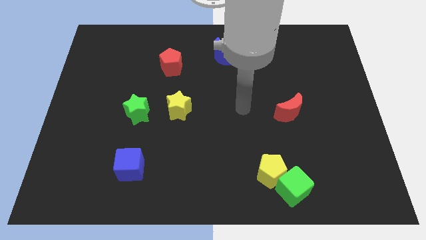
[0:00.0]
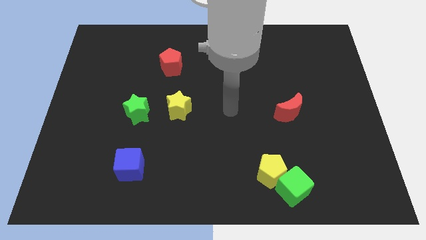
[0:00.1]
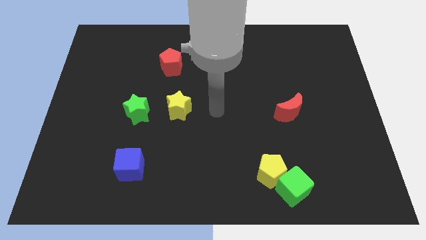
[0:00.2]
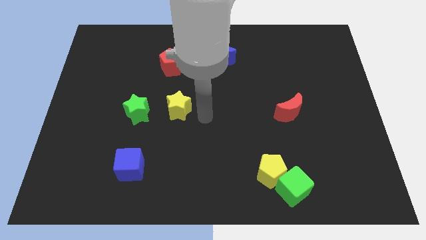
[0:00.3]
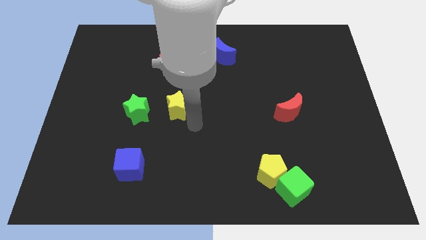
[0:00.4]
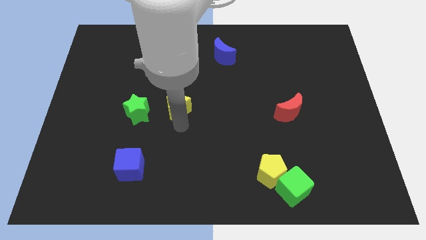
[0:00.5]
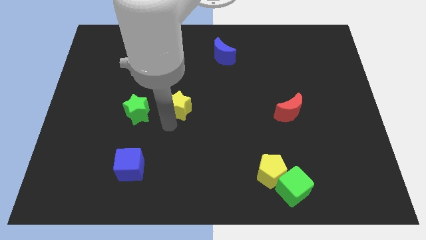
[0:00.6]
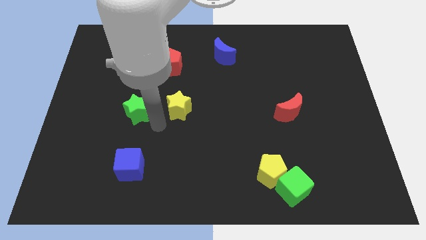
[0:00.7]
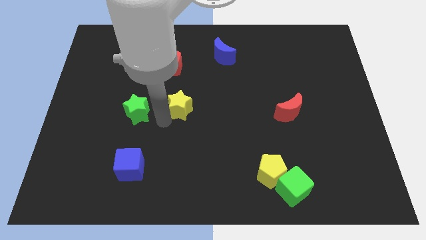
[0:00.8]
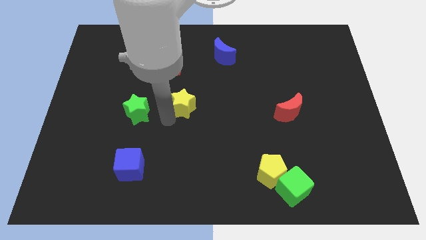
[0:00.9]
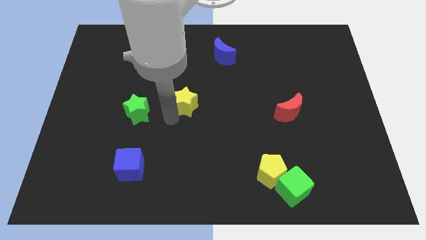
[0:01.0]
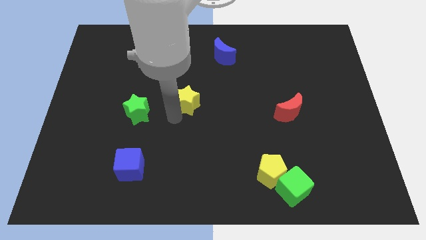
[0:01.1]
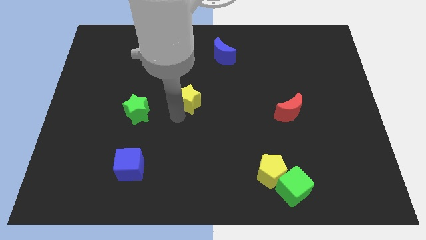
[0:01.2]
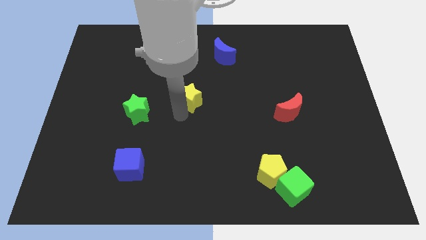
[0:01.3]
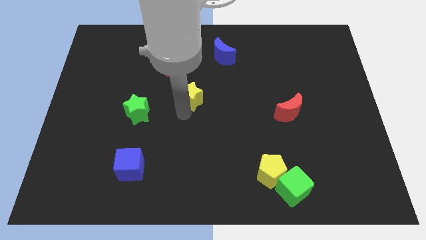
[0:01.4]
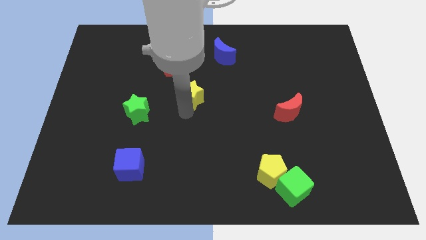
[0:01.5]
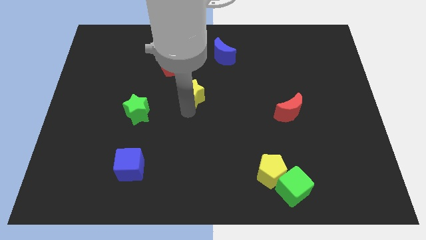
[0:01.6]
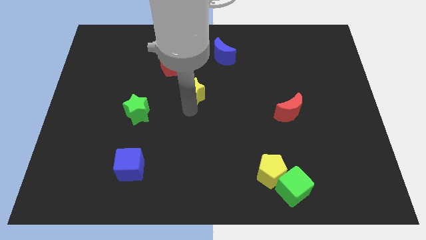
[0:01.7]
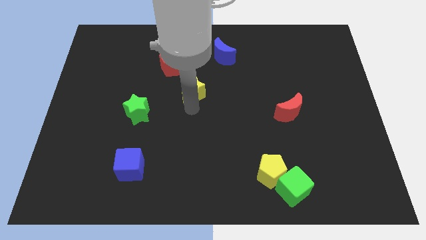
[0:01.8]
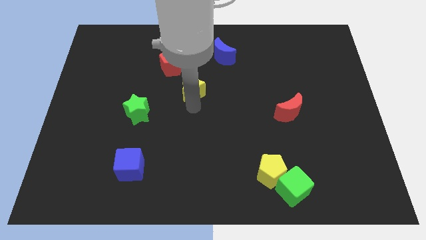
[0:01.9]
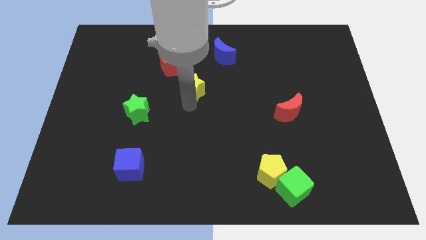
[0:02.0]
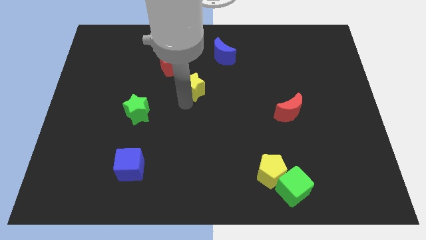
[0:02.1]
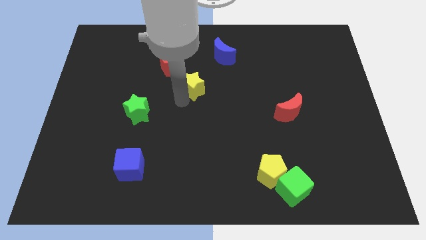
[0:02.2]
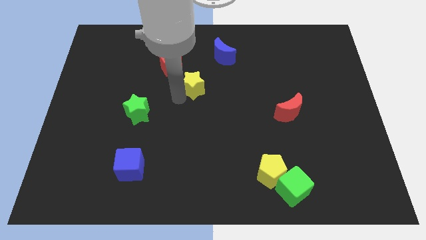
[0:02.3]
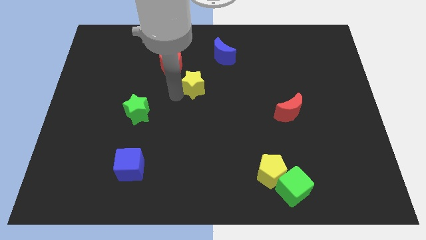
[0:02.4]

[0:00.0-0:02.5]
push the yellow star up and right diagonally slightly

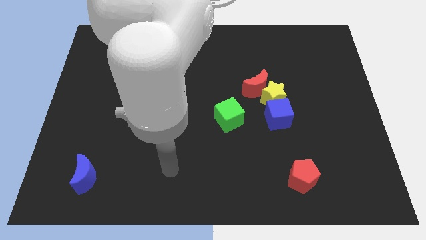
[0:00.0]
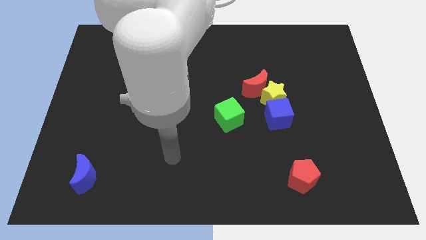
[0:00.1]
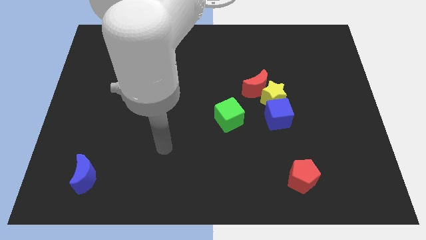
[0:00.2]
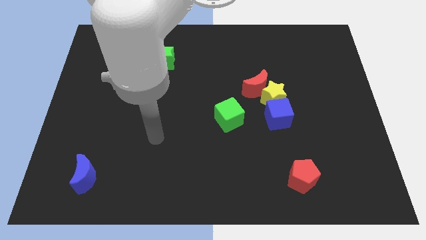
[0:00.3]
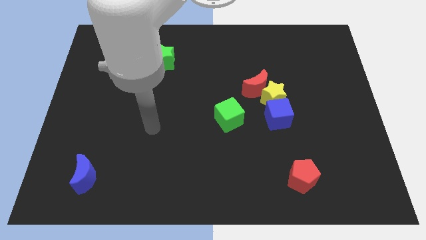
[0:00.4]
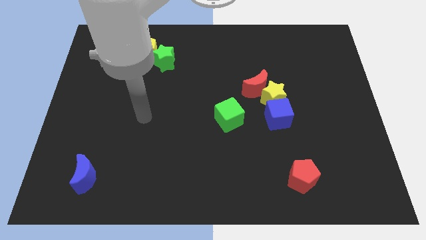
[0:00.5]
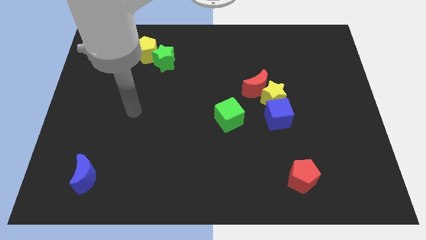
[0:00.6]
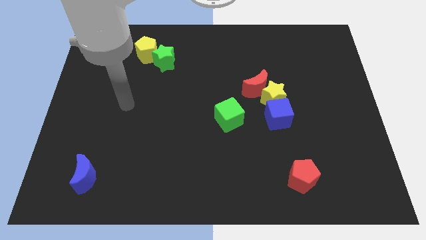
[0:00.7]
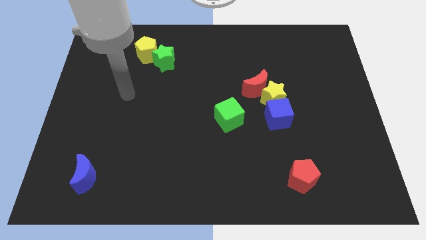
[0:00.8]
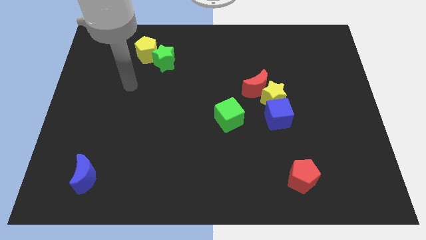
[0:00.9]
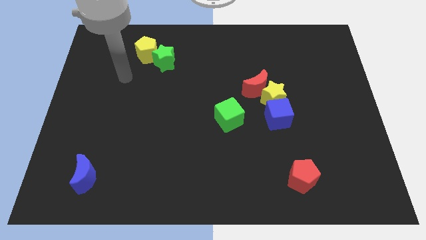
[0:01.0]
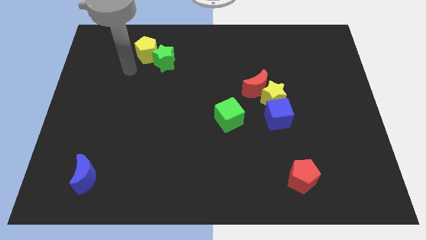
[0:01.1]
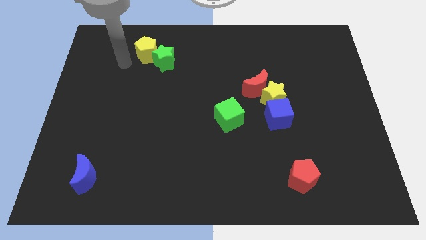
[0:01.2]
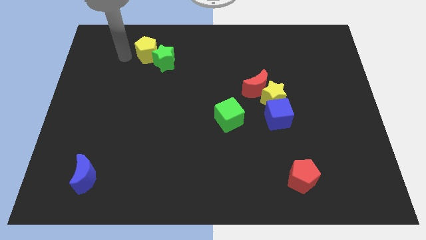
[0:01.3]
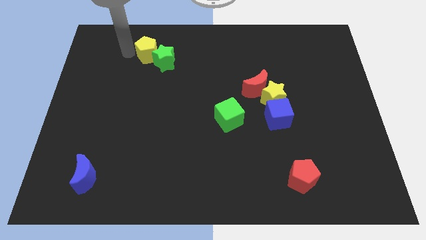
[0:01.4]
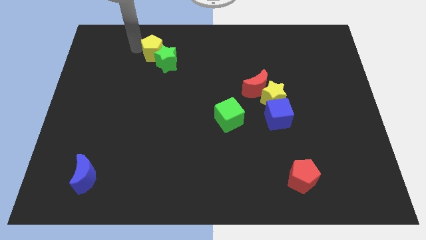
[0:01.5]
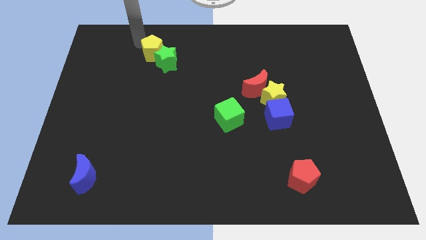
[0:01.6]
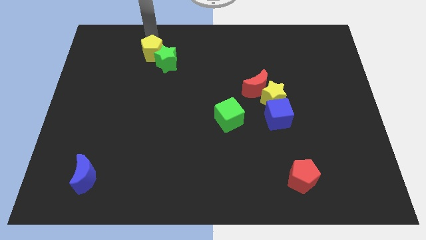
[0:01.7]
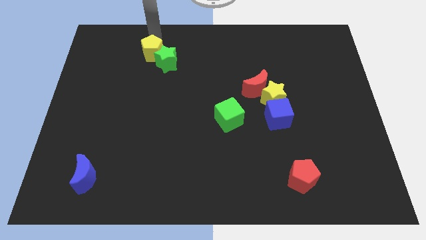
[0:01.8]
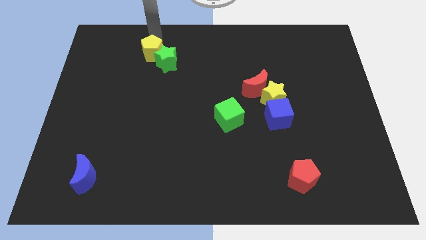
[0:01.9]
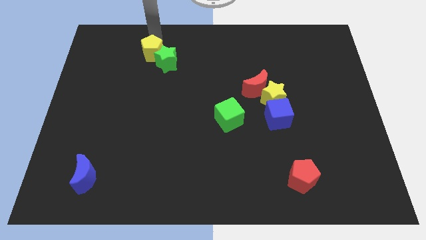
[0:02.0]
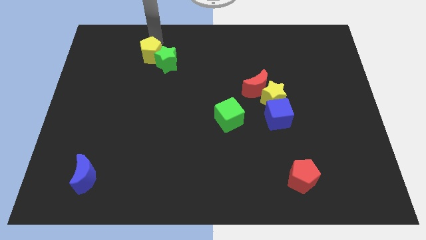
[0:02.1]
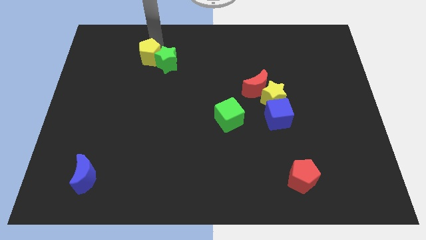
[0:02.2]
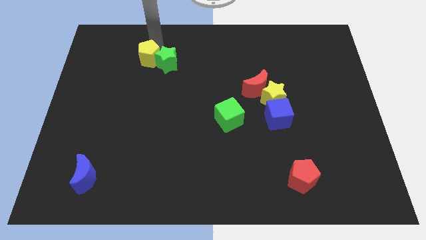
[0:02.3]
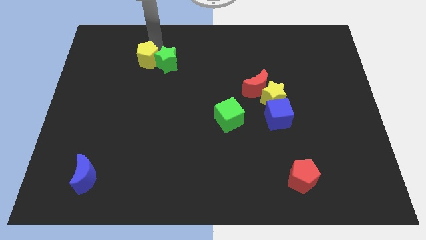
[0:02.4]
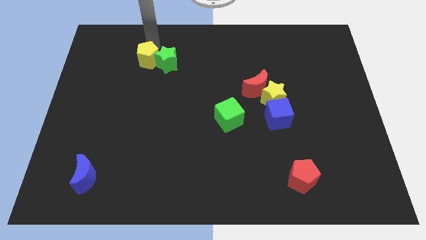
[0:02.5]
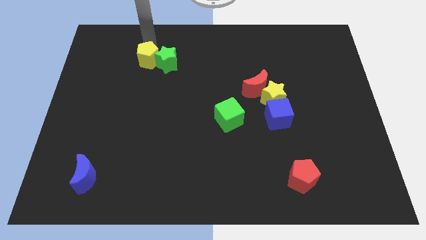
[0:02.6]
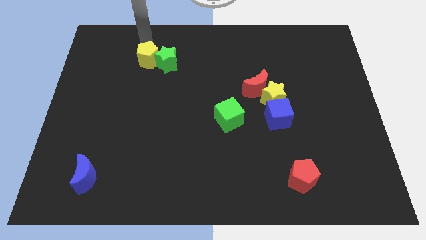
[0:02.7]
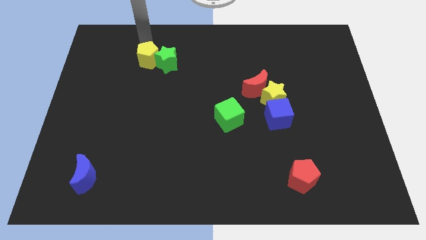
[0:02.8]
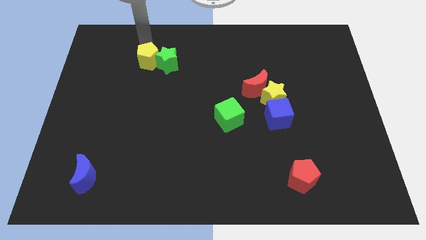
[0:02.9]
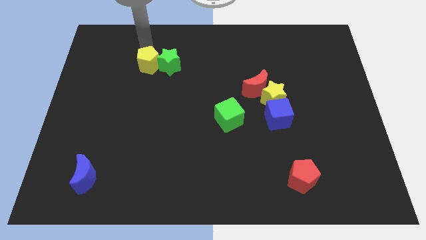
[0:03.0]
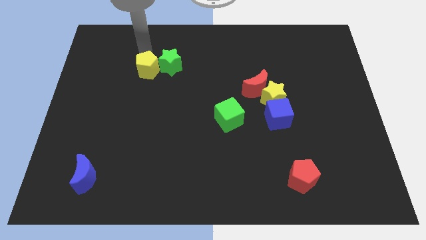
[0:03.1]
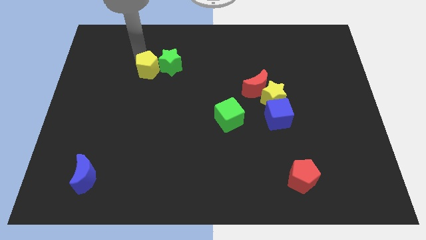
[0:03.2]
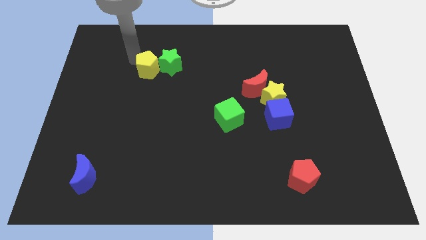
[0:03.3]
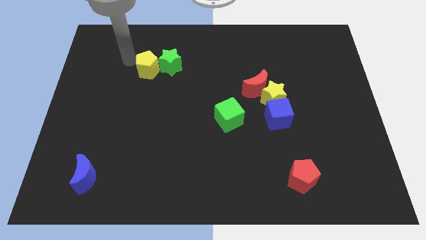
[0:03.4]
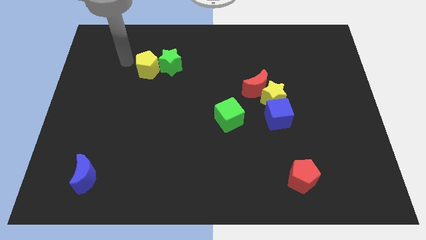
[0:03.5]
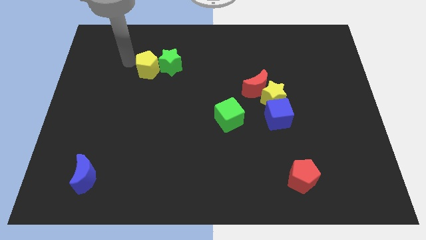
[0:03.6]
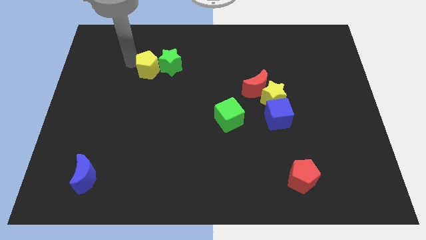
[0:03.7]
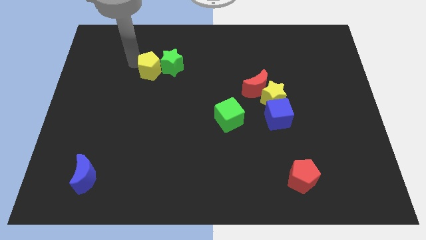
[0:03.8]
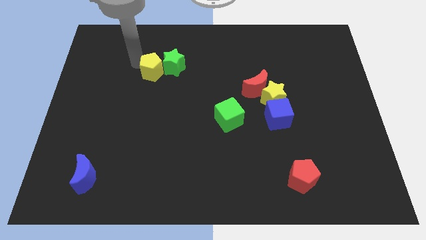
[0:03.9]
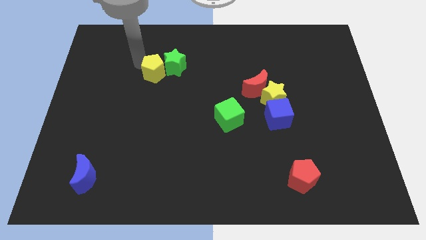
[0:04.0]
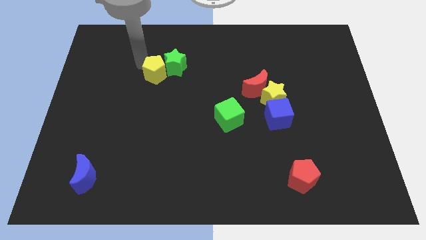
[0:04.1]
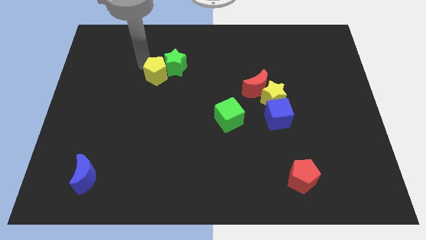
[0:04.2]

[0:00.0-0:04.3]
push the yellow pentagon a little bit diagonally down and right

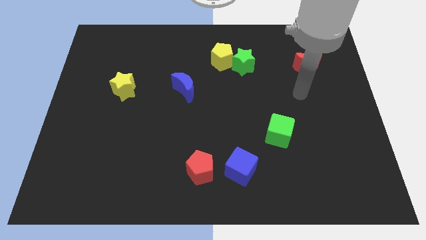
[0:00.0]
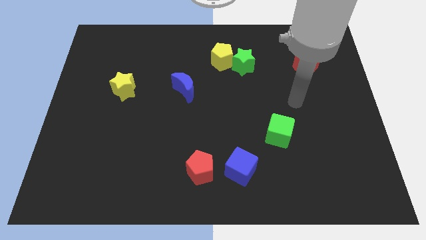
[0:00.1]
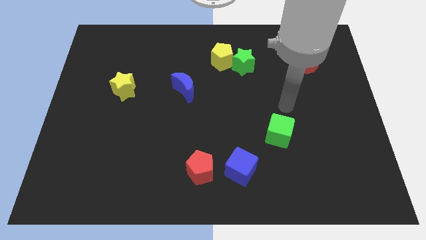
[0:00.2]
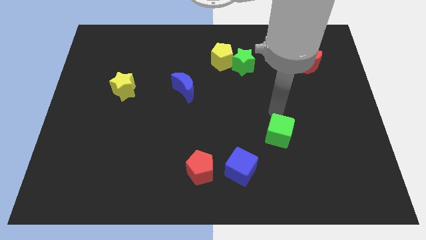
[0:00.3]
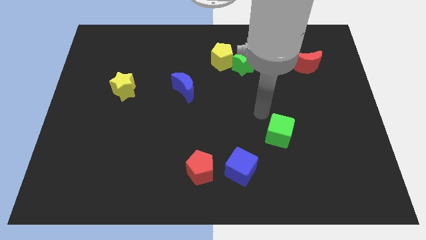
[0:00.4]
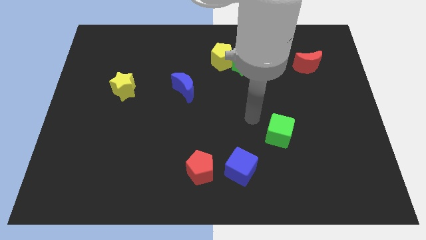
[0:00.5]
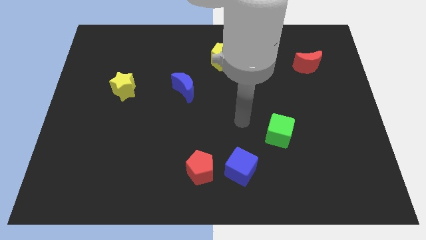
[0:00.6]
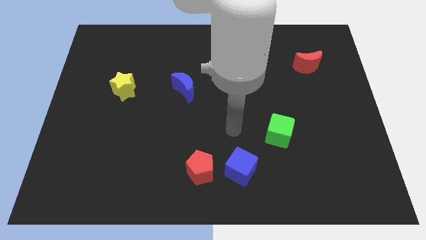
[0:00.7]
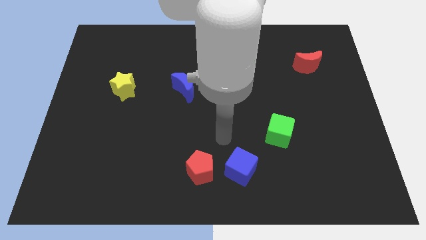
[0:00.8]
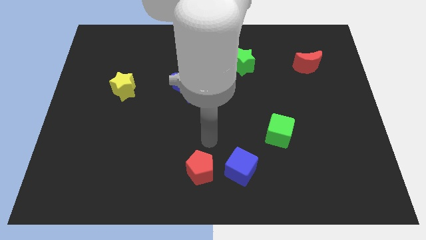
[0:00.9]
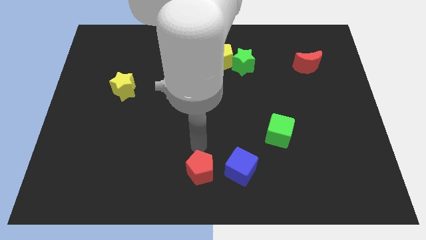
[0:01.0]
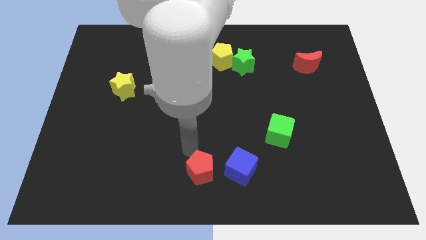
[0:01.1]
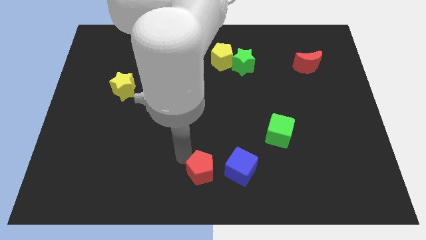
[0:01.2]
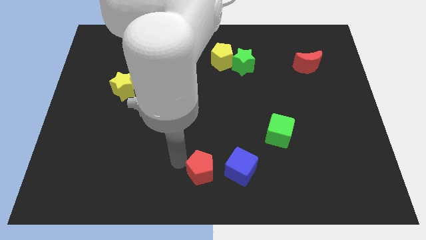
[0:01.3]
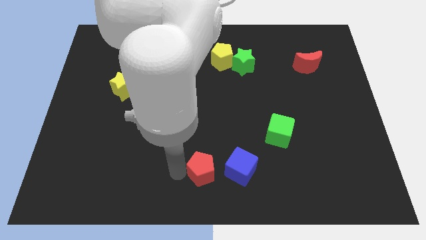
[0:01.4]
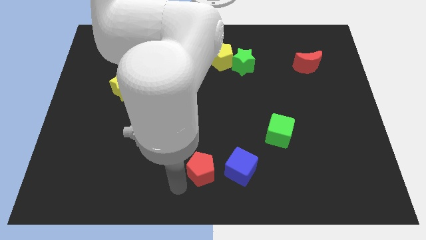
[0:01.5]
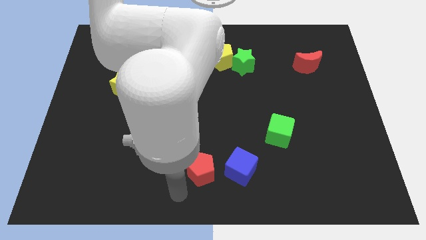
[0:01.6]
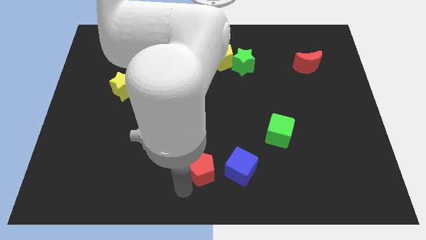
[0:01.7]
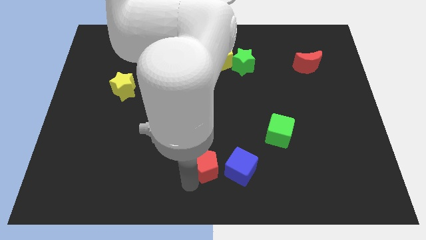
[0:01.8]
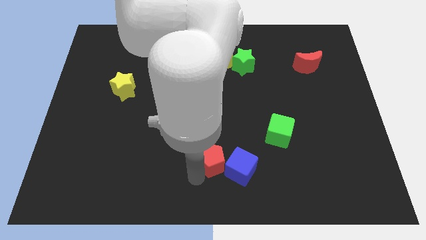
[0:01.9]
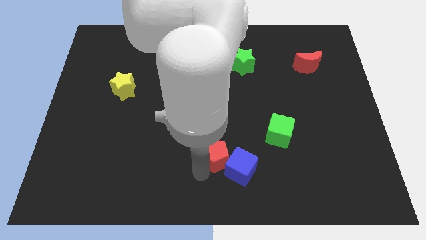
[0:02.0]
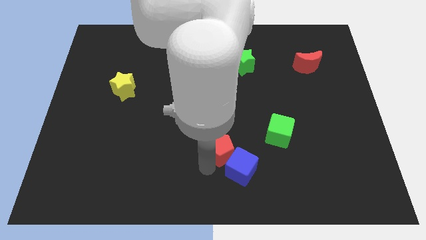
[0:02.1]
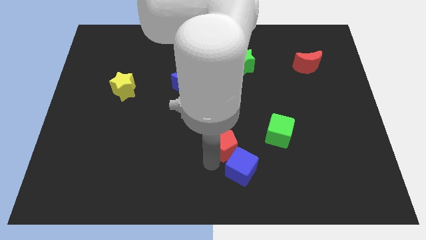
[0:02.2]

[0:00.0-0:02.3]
slide the red pentagon upwards and then to the right a bit
